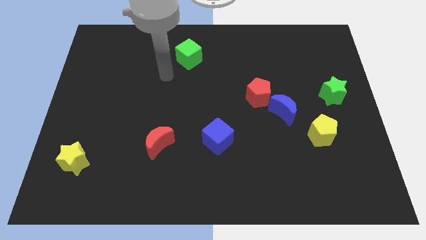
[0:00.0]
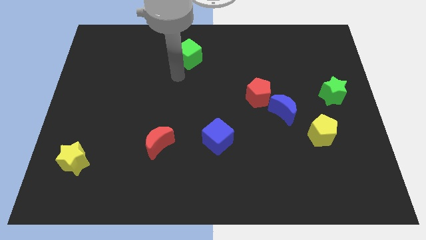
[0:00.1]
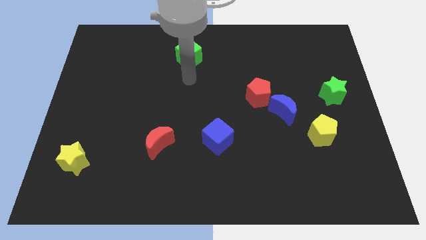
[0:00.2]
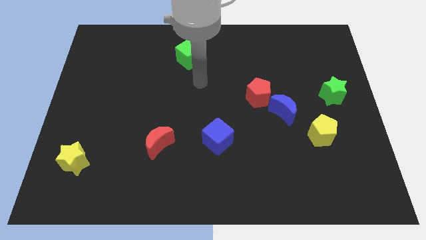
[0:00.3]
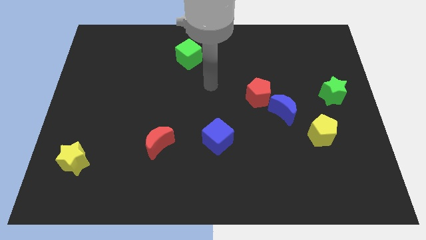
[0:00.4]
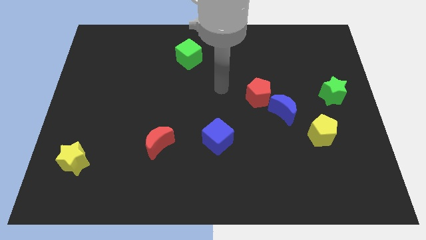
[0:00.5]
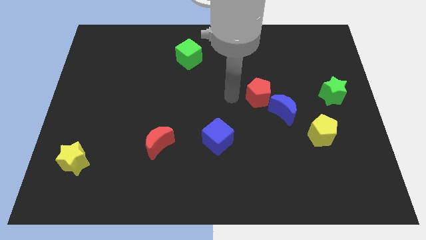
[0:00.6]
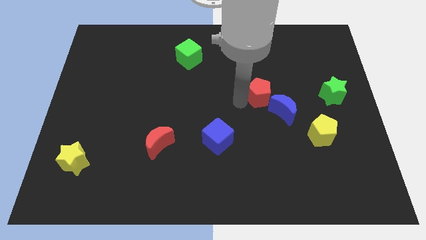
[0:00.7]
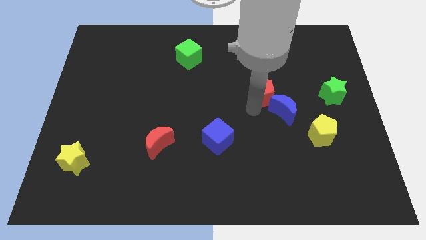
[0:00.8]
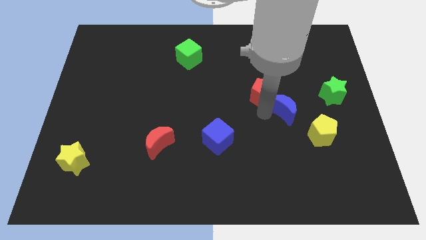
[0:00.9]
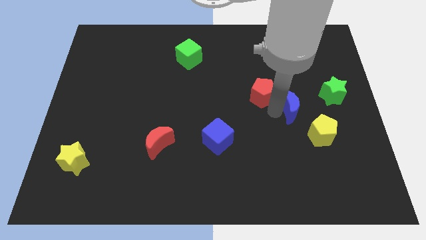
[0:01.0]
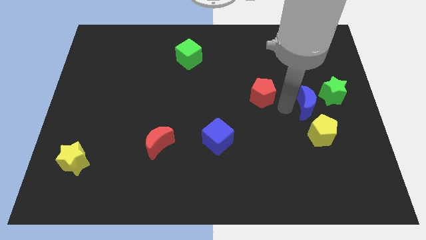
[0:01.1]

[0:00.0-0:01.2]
move the red pentagon away from the blue moon

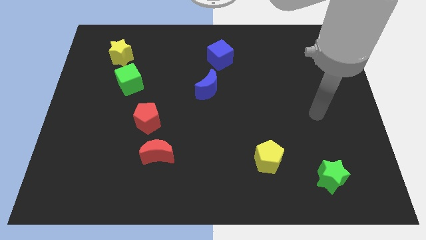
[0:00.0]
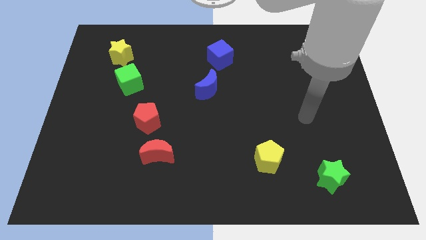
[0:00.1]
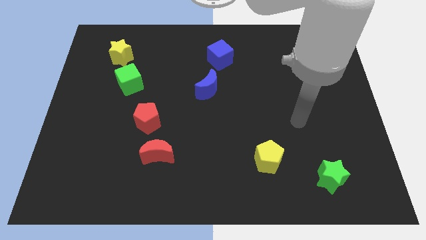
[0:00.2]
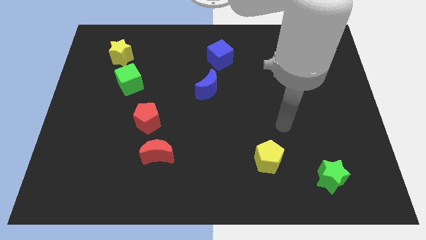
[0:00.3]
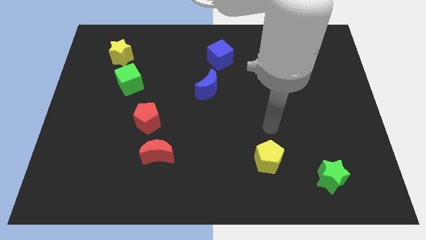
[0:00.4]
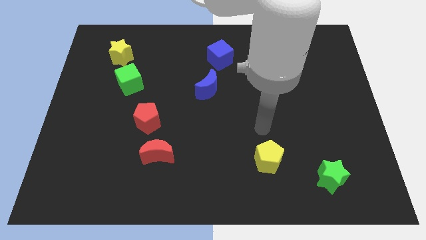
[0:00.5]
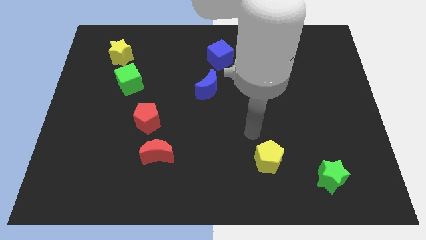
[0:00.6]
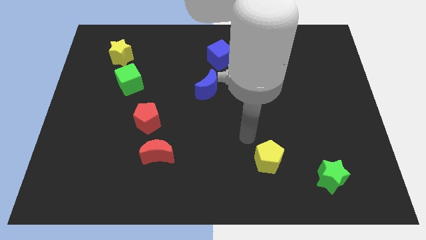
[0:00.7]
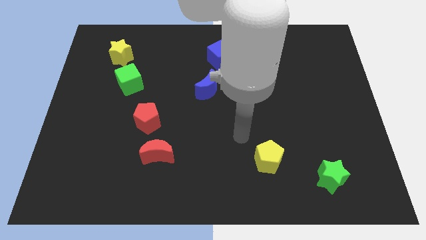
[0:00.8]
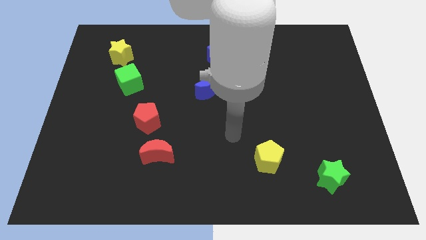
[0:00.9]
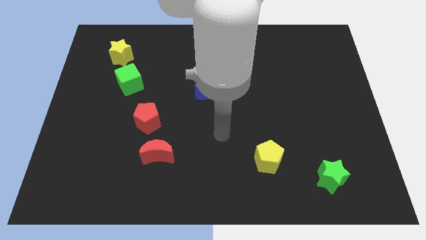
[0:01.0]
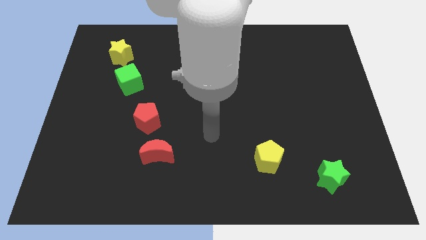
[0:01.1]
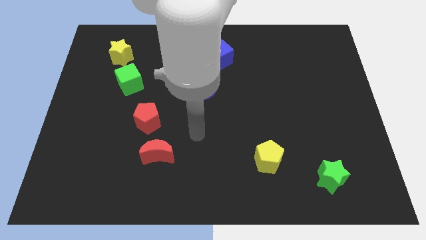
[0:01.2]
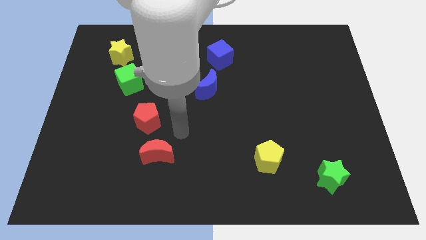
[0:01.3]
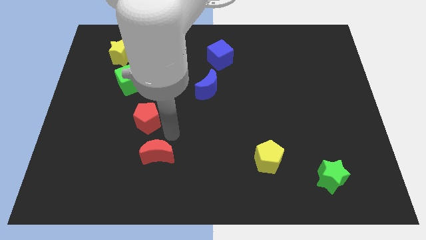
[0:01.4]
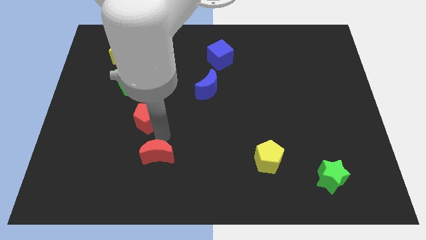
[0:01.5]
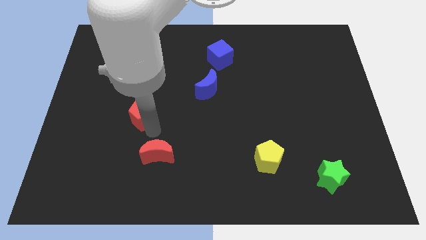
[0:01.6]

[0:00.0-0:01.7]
move the red moon away from the red pentagon

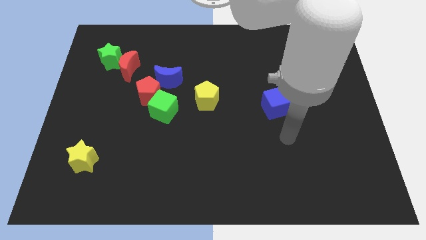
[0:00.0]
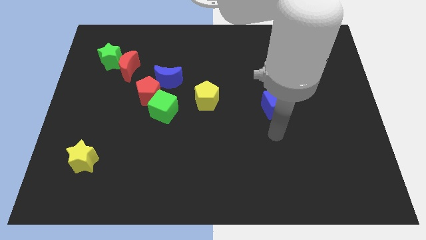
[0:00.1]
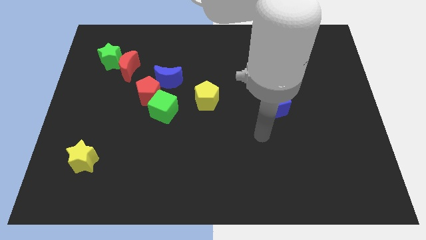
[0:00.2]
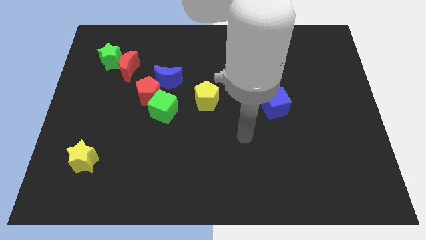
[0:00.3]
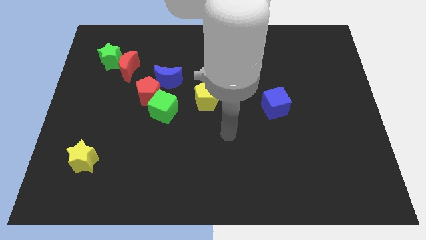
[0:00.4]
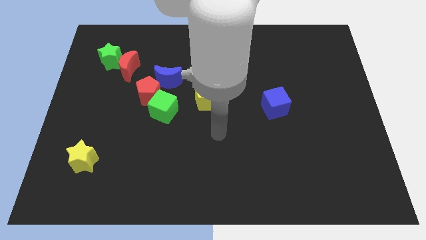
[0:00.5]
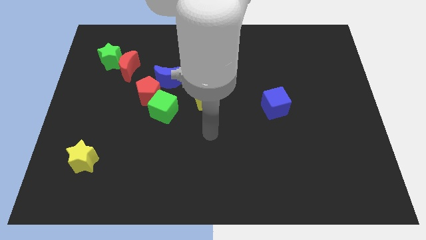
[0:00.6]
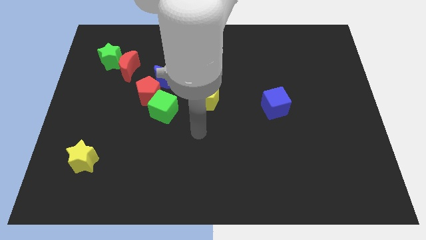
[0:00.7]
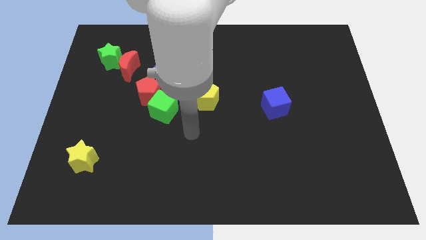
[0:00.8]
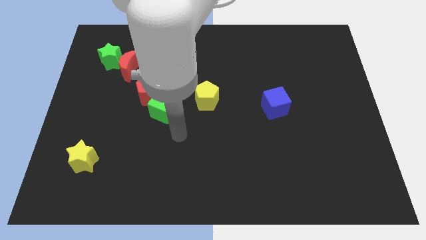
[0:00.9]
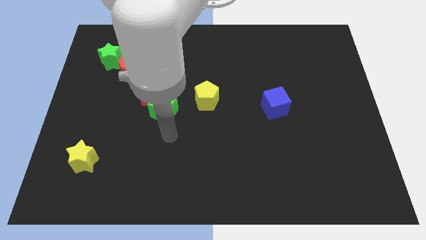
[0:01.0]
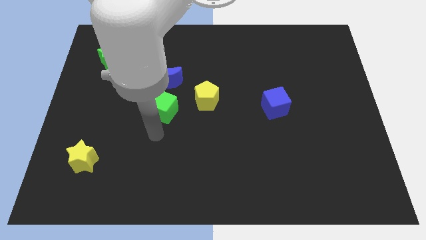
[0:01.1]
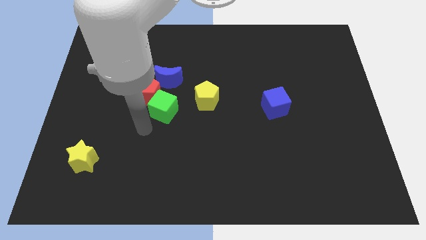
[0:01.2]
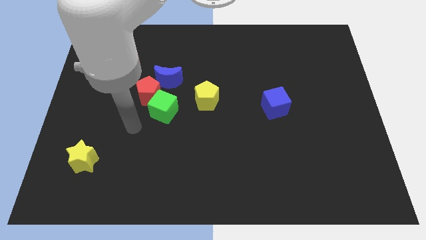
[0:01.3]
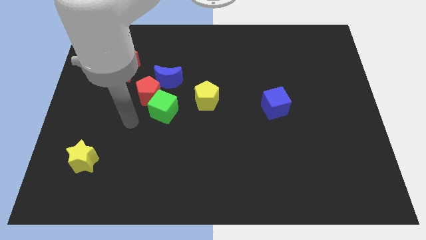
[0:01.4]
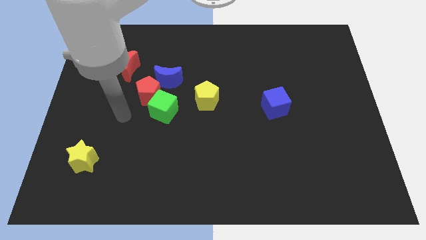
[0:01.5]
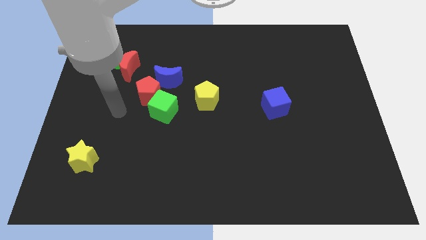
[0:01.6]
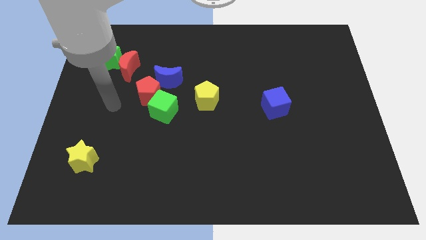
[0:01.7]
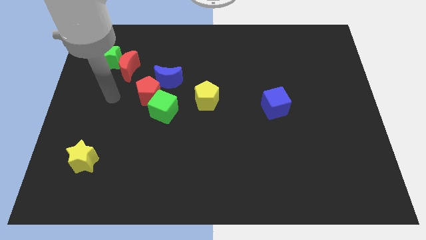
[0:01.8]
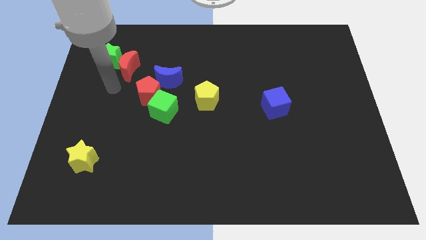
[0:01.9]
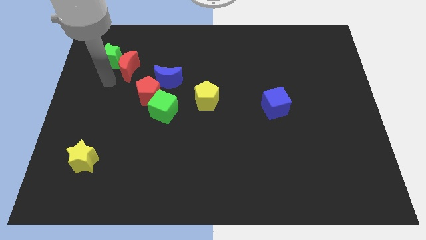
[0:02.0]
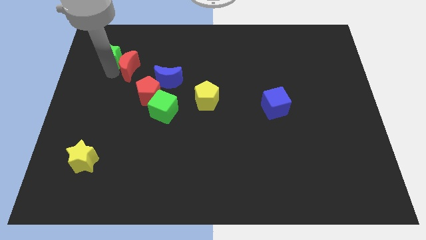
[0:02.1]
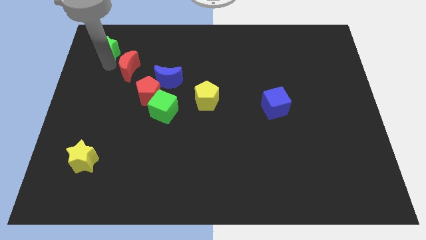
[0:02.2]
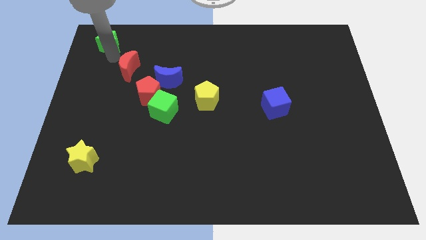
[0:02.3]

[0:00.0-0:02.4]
pull the red moon apart from the green star

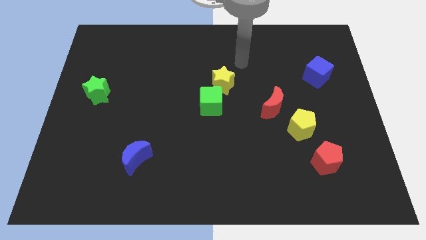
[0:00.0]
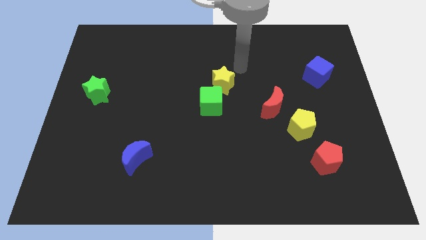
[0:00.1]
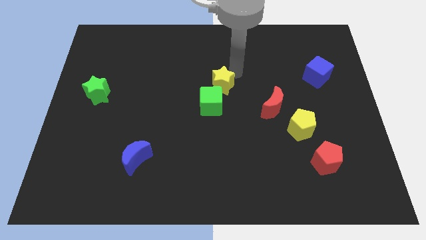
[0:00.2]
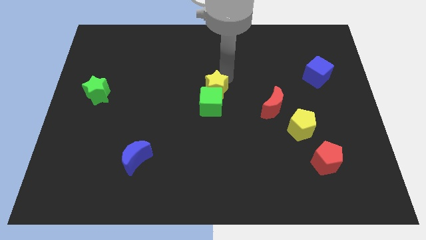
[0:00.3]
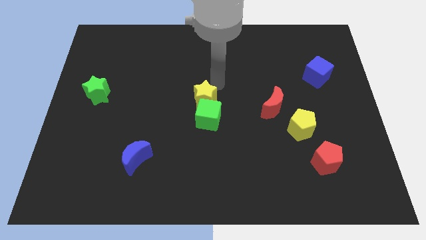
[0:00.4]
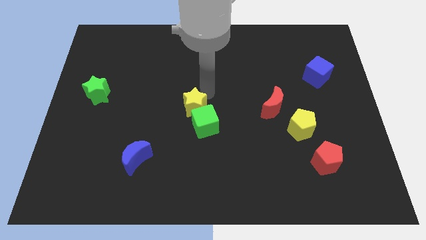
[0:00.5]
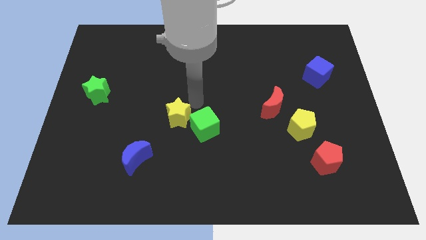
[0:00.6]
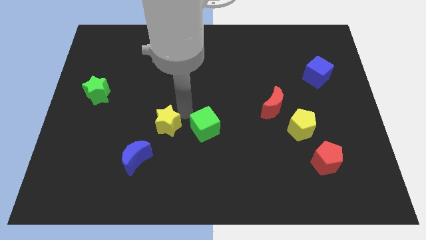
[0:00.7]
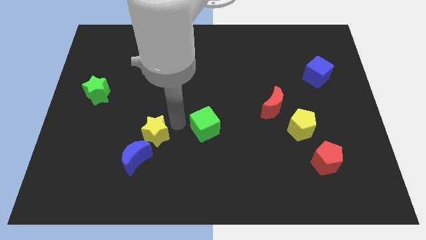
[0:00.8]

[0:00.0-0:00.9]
separate the green cube from the yellow star

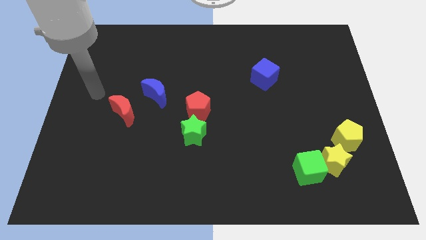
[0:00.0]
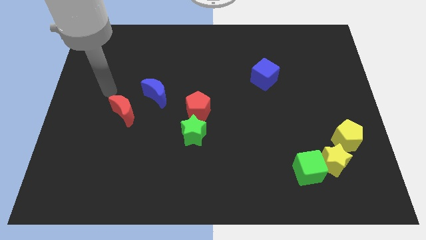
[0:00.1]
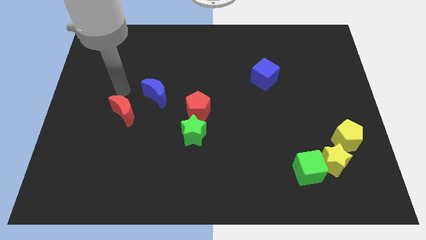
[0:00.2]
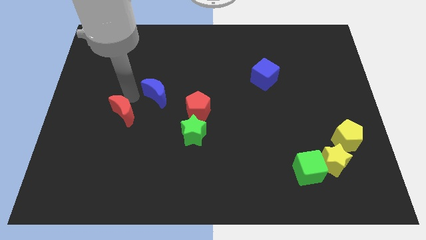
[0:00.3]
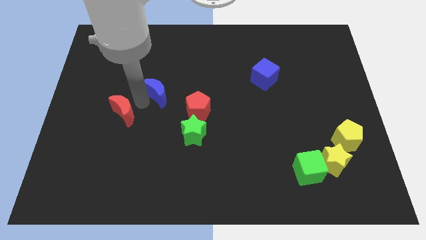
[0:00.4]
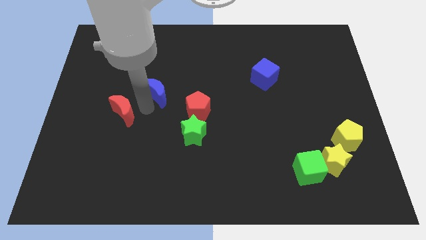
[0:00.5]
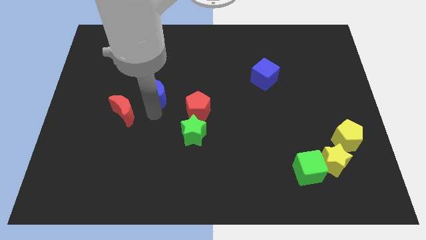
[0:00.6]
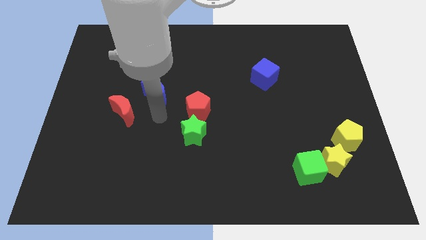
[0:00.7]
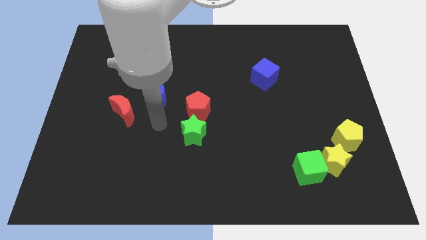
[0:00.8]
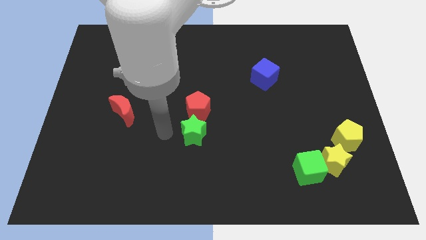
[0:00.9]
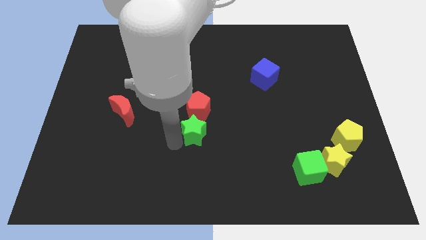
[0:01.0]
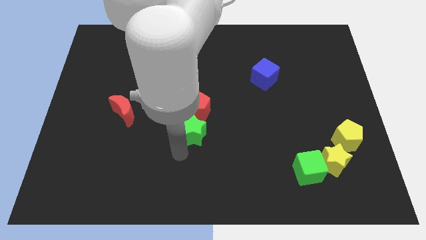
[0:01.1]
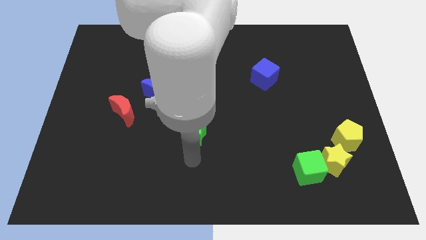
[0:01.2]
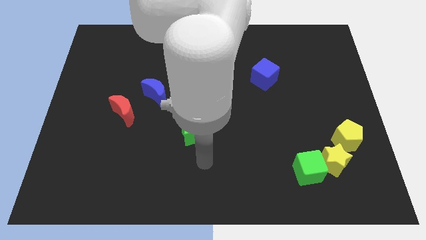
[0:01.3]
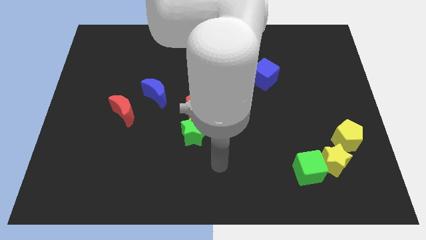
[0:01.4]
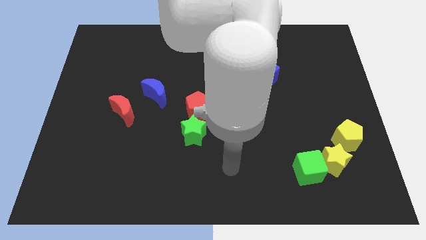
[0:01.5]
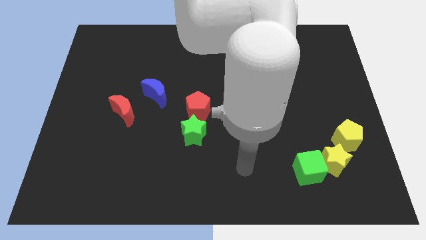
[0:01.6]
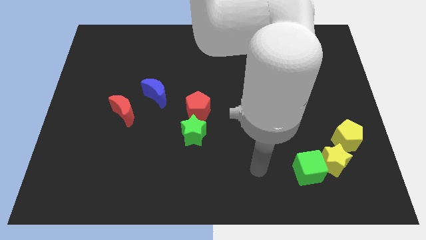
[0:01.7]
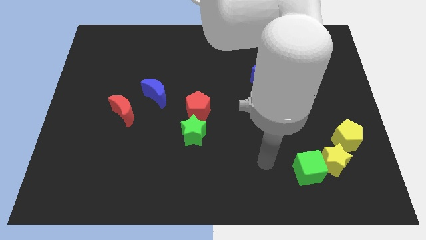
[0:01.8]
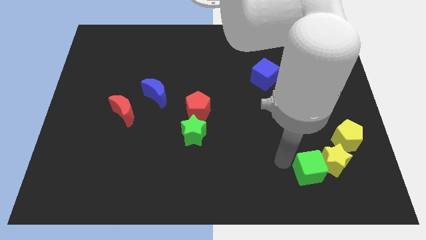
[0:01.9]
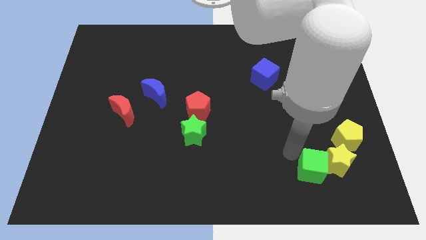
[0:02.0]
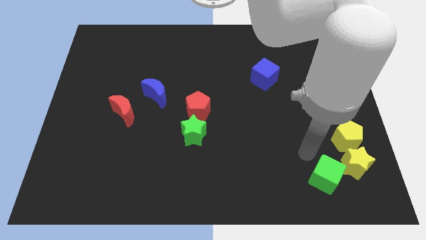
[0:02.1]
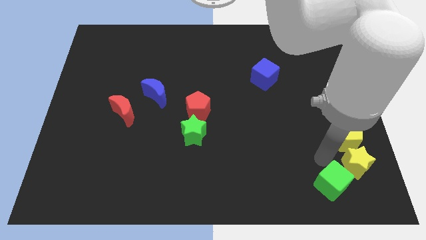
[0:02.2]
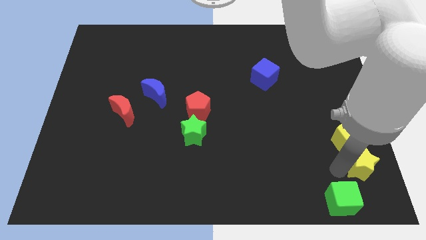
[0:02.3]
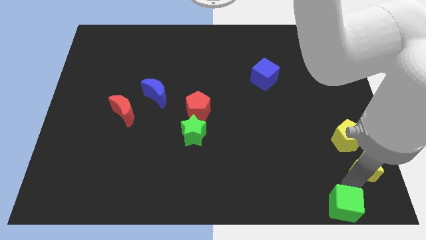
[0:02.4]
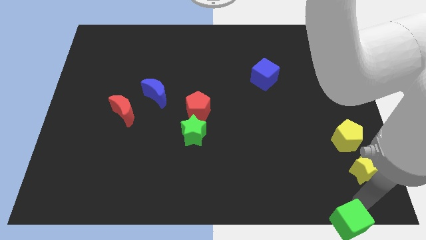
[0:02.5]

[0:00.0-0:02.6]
pull the green cube apart from the yellow star

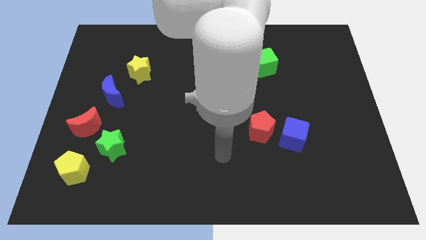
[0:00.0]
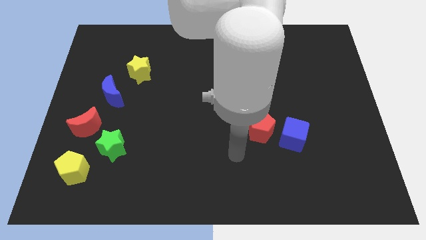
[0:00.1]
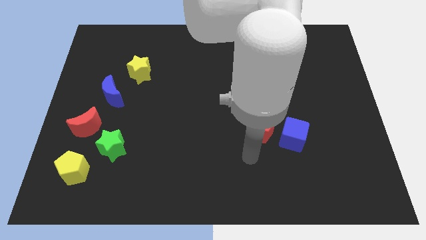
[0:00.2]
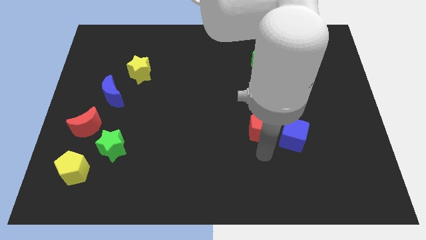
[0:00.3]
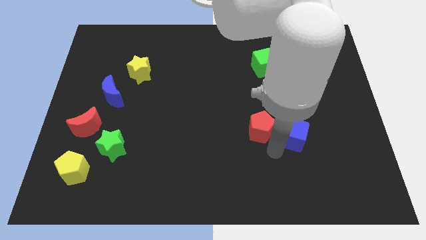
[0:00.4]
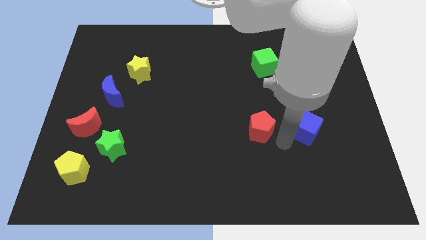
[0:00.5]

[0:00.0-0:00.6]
separate the red pentagon from the blue cube

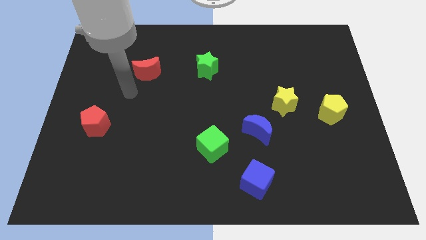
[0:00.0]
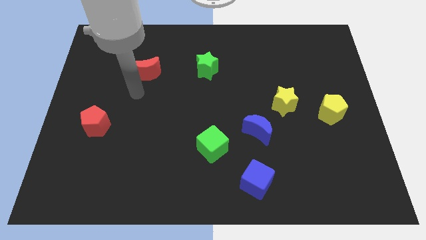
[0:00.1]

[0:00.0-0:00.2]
pull the blue moon apart from the yellow star
